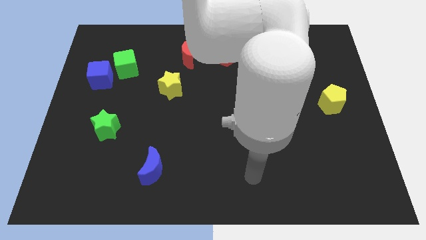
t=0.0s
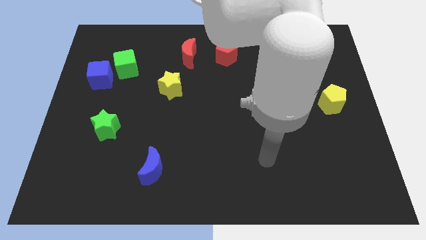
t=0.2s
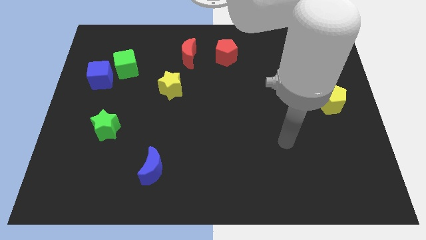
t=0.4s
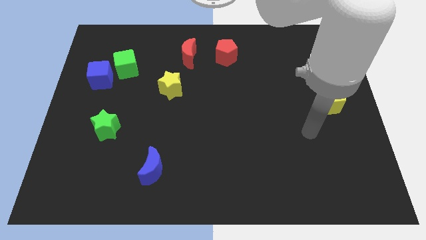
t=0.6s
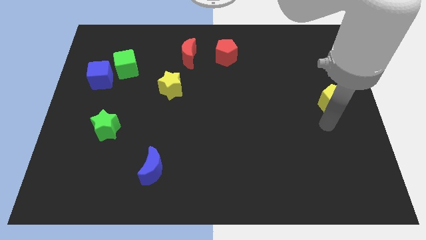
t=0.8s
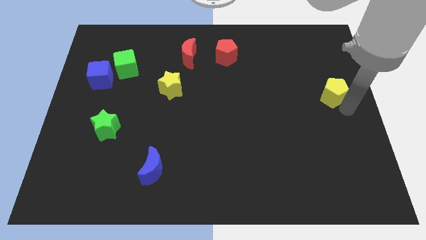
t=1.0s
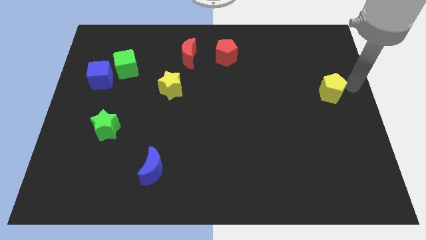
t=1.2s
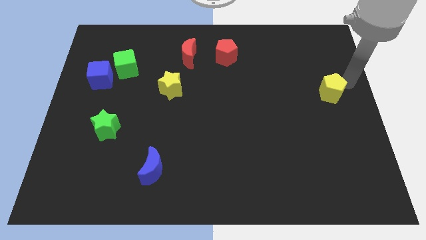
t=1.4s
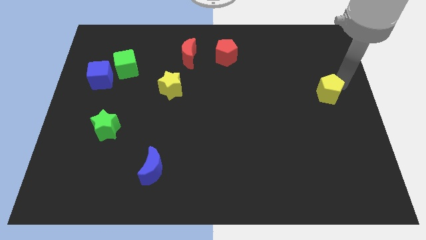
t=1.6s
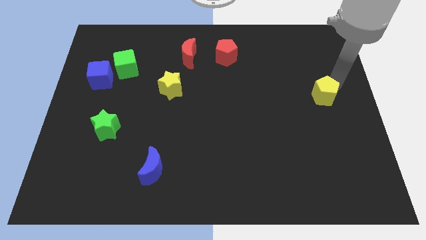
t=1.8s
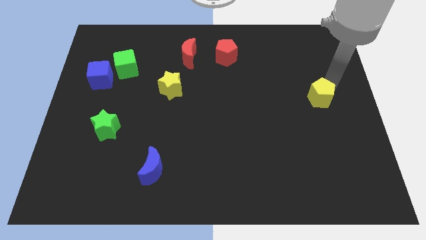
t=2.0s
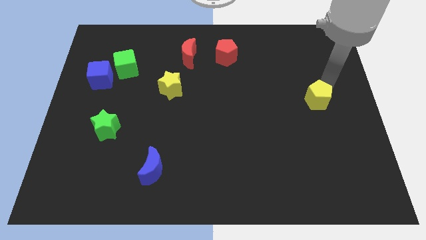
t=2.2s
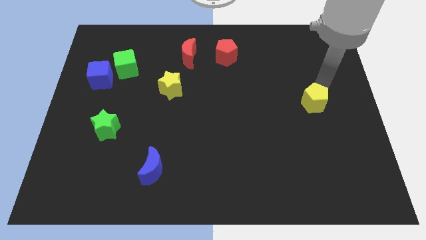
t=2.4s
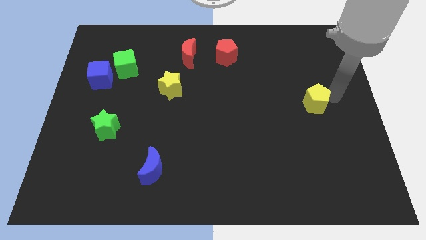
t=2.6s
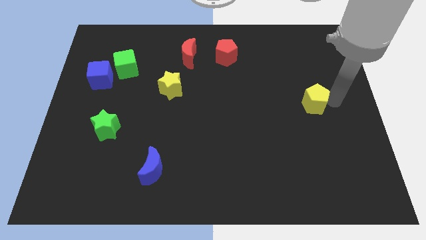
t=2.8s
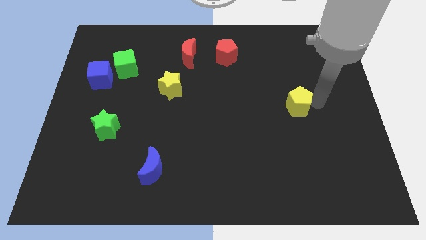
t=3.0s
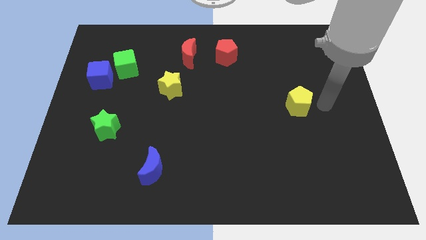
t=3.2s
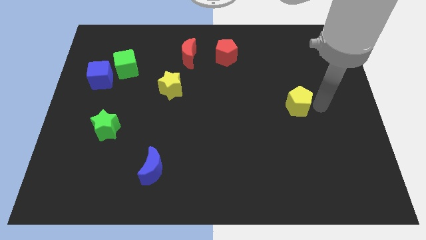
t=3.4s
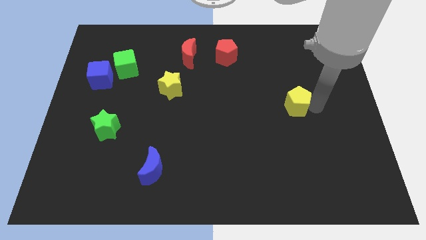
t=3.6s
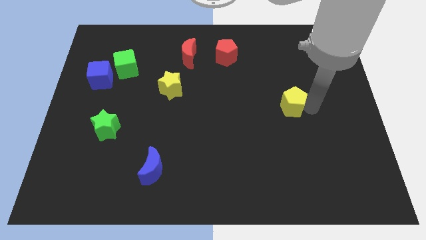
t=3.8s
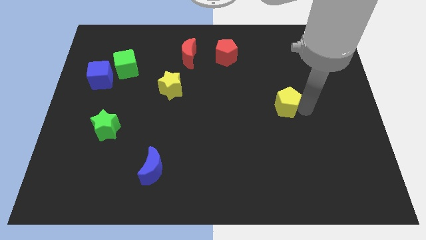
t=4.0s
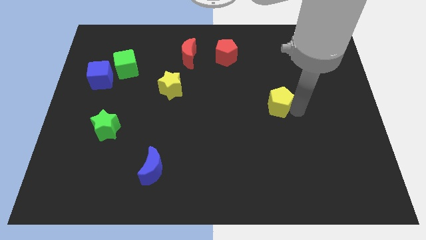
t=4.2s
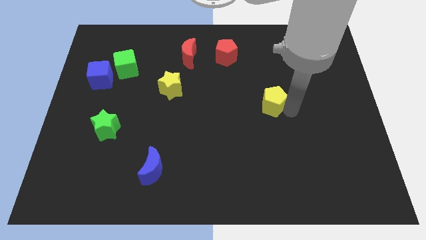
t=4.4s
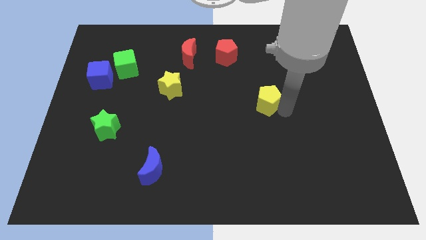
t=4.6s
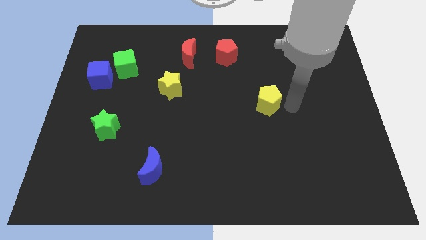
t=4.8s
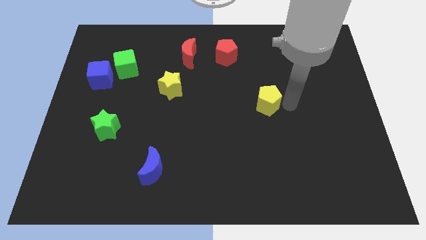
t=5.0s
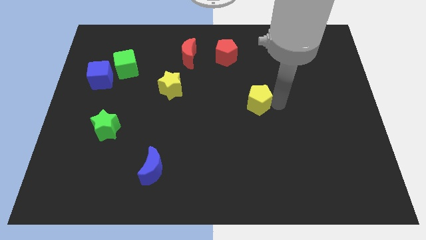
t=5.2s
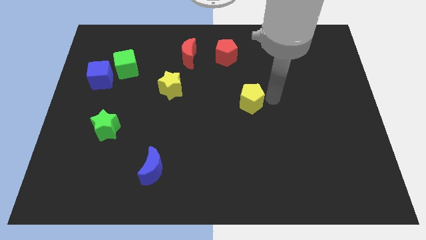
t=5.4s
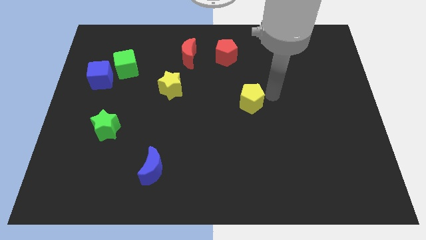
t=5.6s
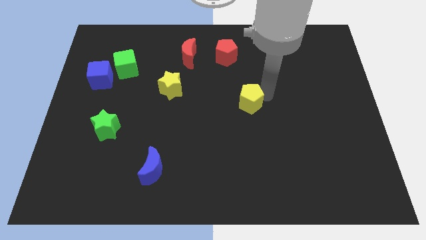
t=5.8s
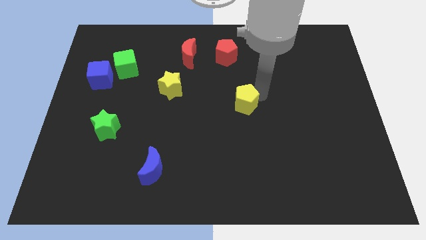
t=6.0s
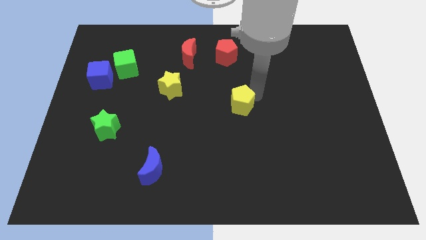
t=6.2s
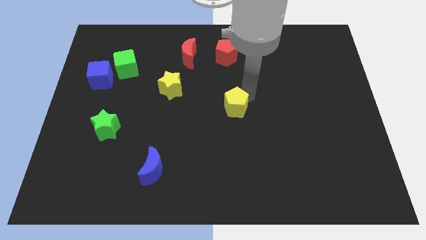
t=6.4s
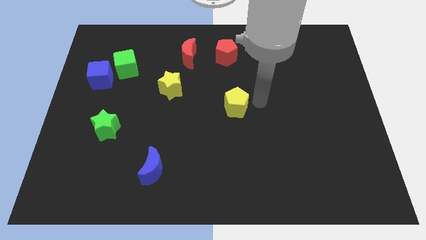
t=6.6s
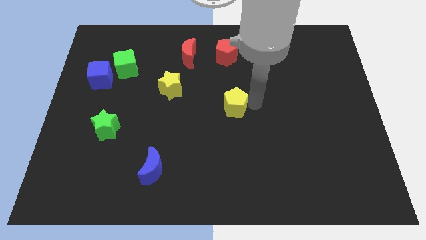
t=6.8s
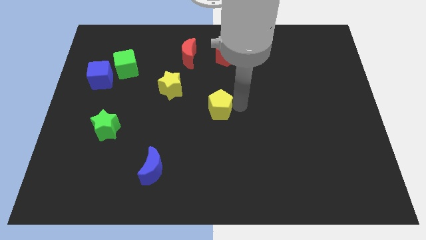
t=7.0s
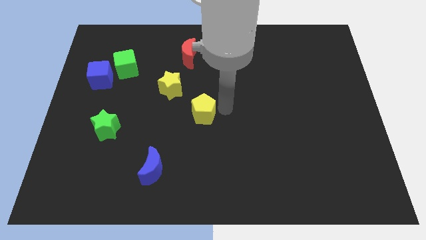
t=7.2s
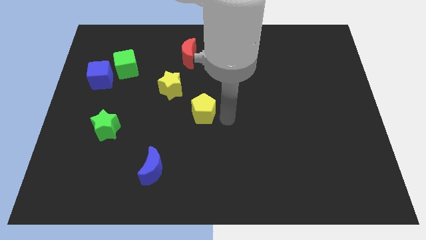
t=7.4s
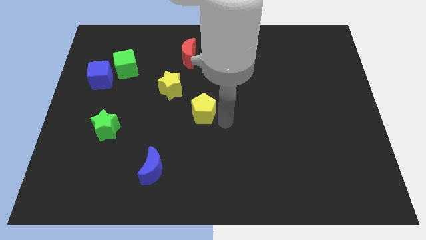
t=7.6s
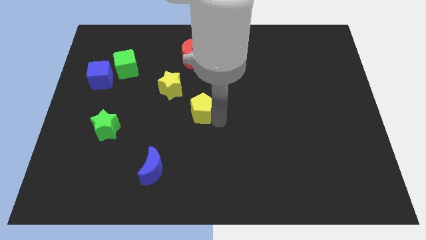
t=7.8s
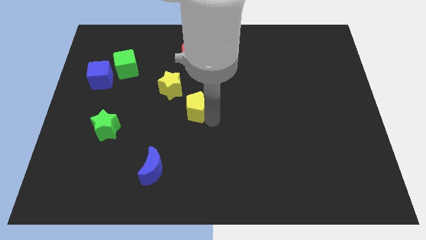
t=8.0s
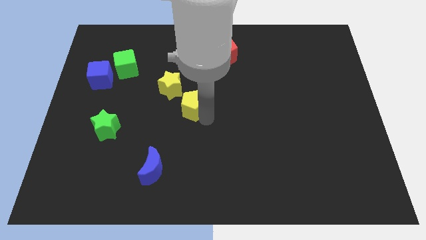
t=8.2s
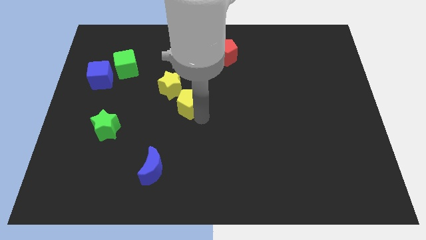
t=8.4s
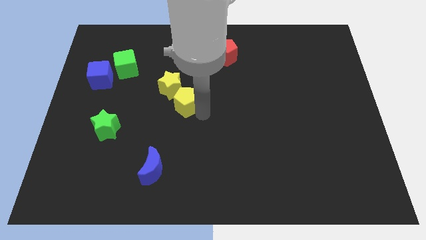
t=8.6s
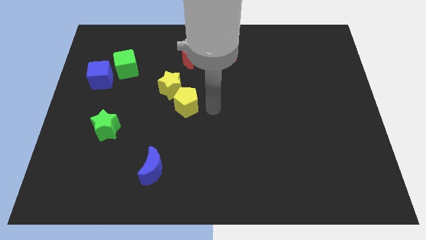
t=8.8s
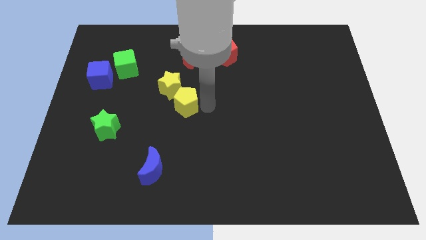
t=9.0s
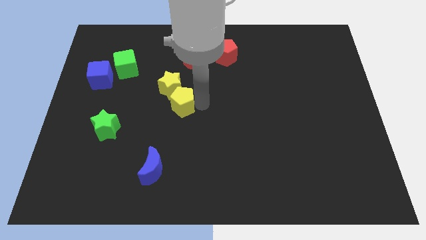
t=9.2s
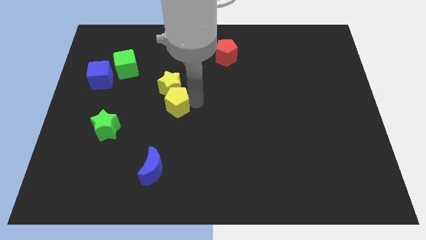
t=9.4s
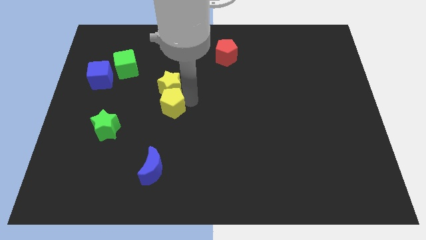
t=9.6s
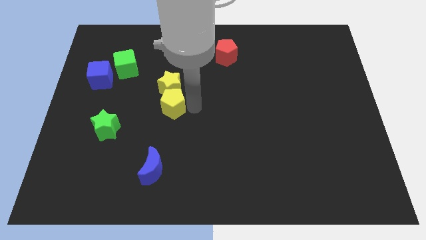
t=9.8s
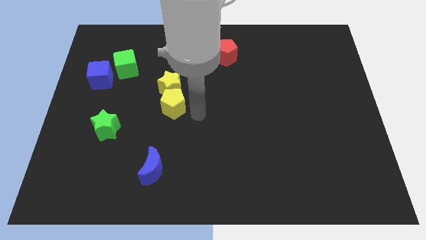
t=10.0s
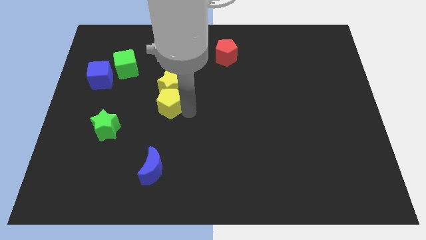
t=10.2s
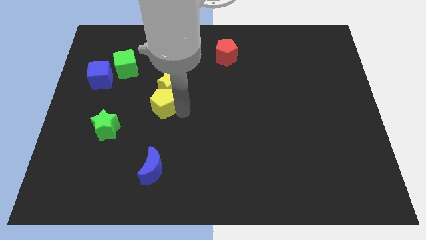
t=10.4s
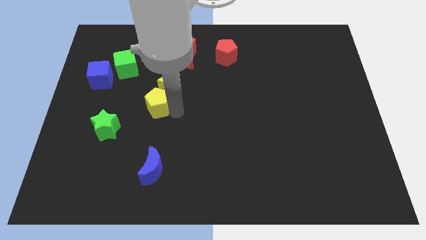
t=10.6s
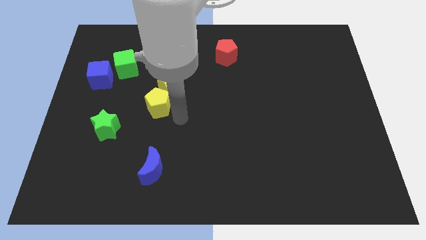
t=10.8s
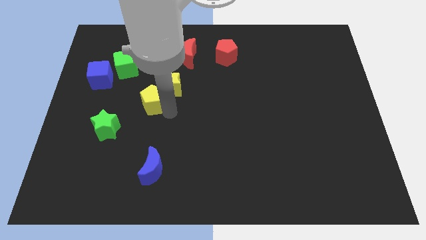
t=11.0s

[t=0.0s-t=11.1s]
put the yellow pentagon to the left side of the yellow star

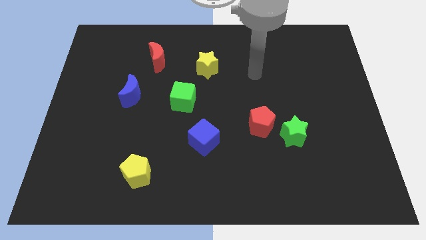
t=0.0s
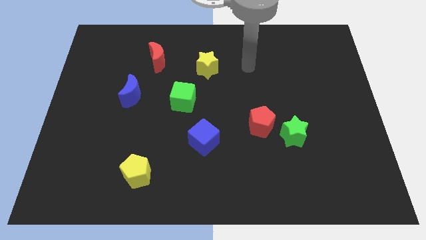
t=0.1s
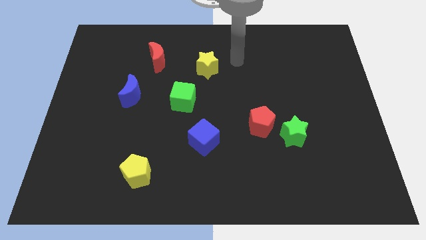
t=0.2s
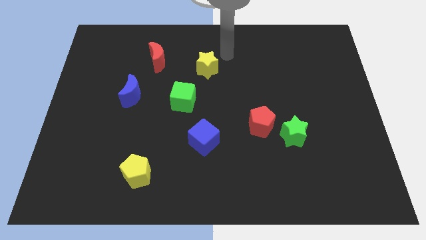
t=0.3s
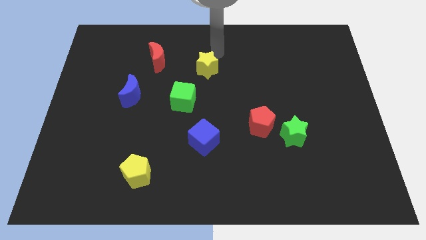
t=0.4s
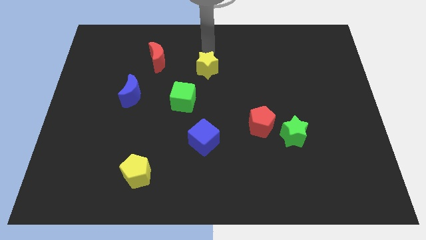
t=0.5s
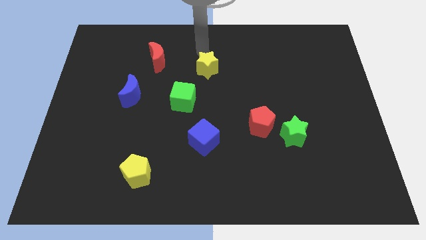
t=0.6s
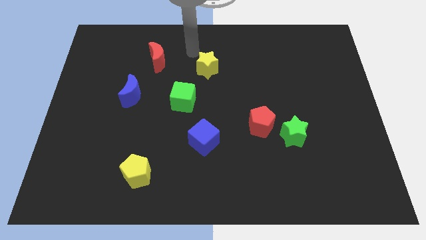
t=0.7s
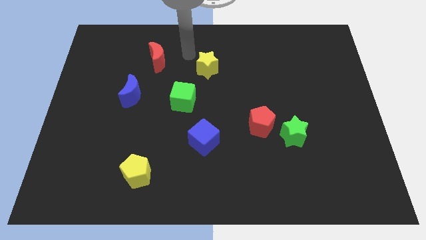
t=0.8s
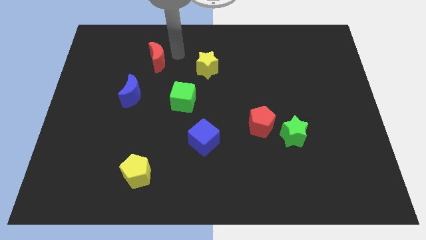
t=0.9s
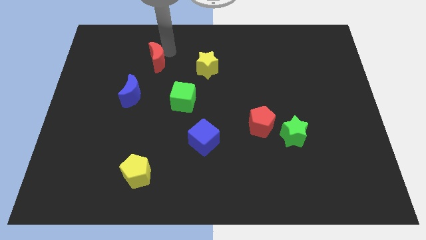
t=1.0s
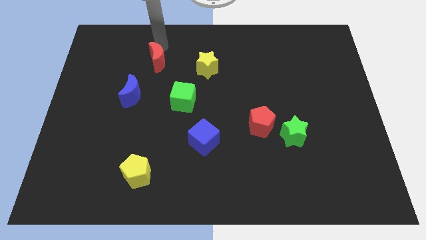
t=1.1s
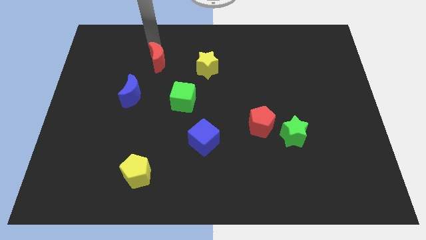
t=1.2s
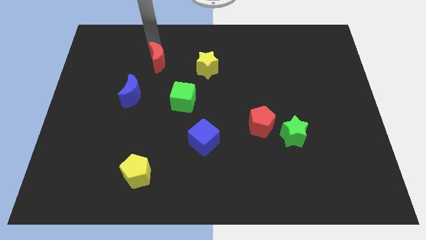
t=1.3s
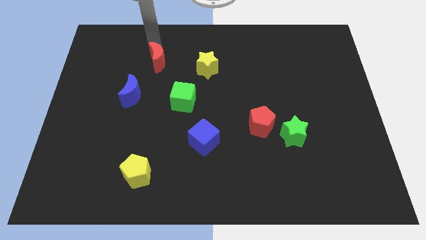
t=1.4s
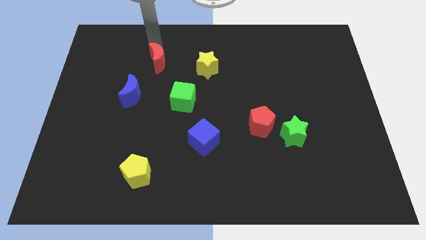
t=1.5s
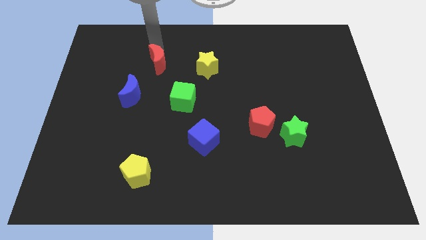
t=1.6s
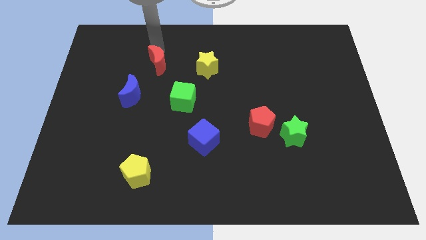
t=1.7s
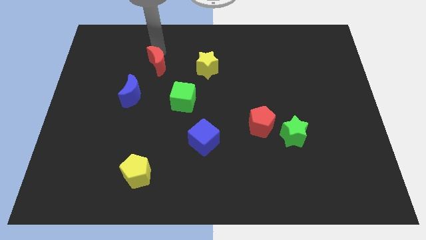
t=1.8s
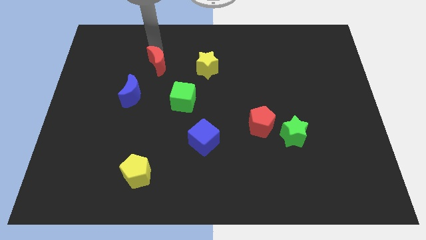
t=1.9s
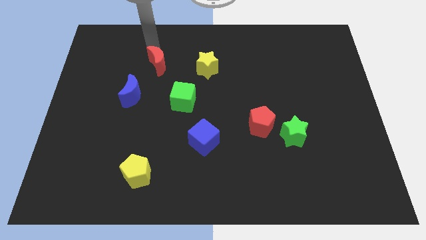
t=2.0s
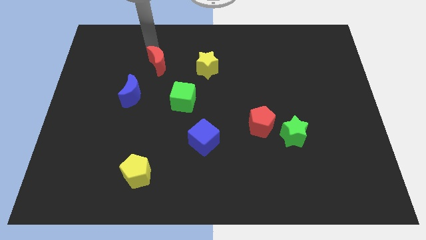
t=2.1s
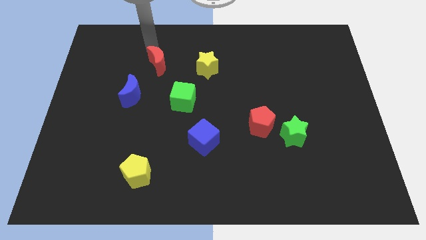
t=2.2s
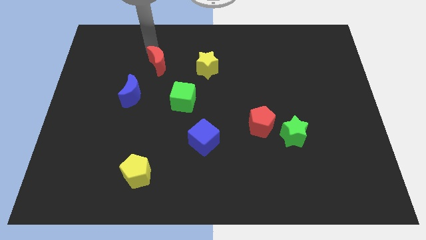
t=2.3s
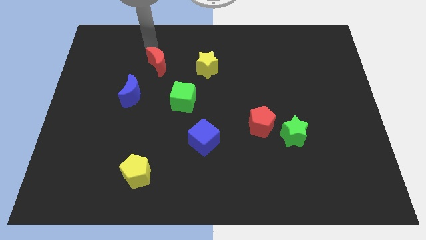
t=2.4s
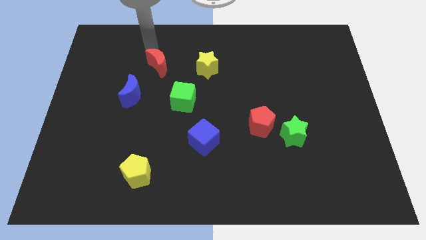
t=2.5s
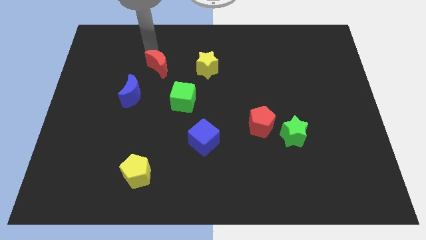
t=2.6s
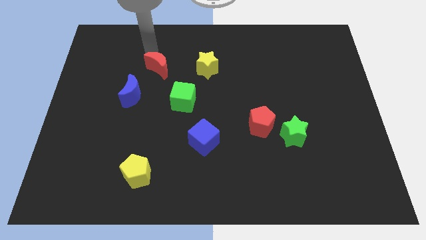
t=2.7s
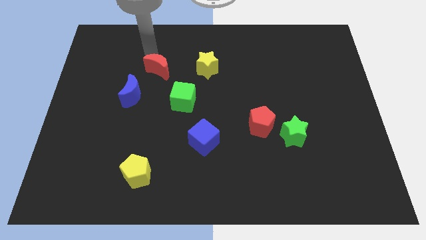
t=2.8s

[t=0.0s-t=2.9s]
push the red moon diagonally up and to the left of the green cube

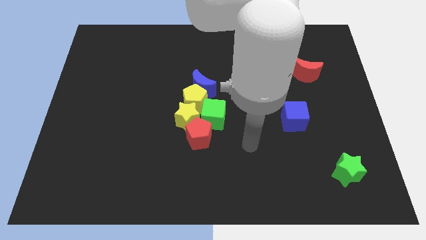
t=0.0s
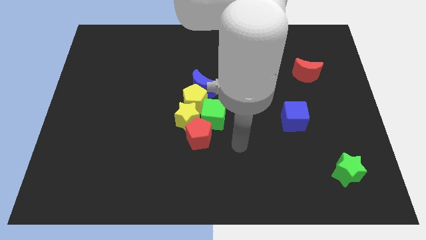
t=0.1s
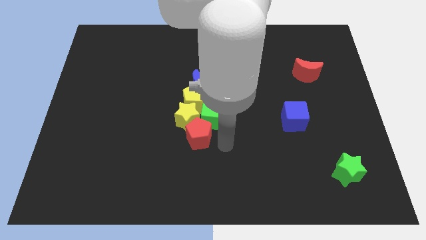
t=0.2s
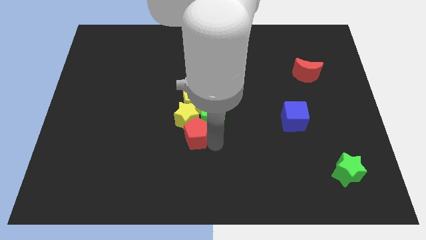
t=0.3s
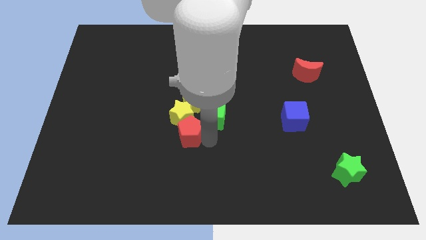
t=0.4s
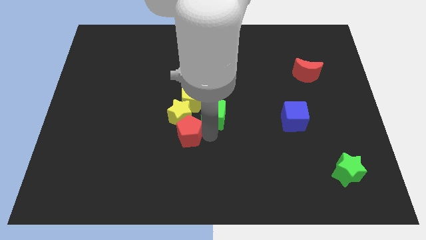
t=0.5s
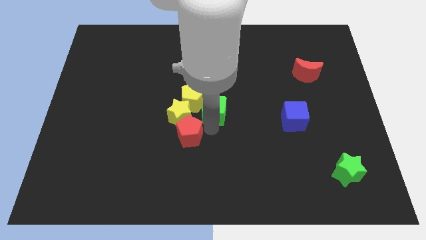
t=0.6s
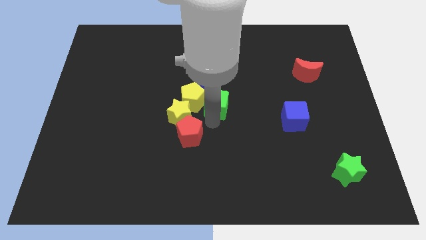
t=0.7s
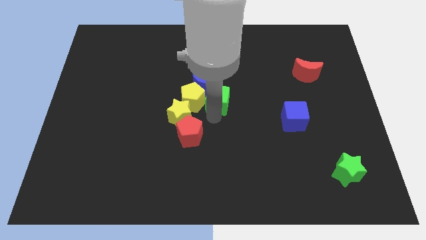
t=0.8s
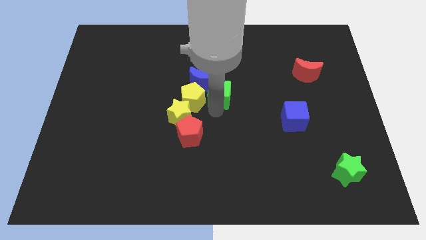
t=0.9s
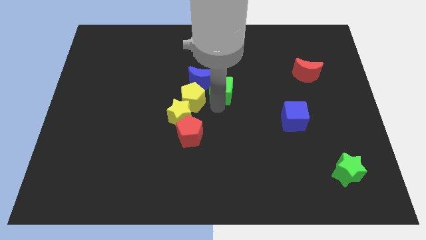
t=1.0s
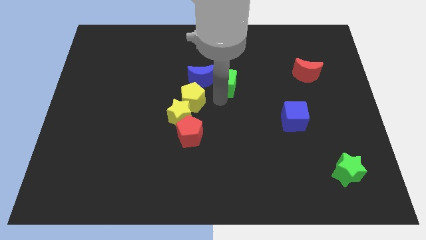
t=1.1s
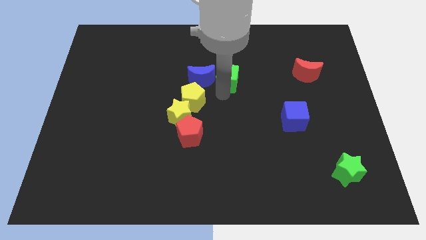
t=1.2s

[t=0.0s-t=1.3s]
push the green cube to the top right of the blue moon
